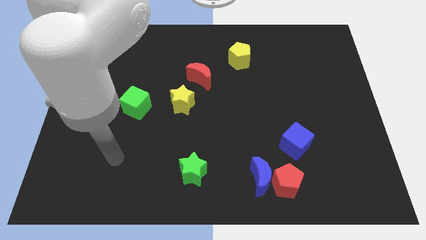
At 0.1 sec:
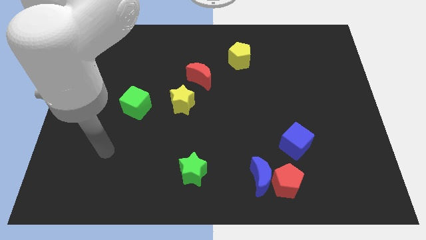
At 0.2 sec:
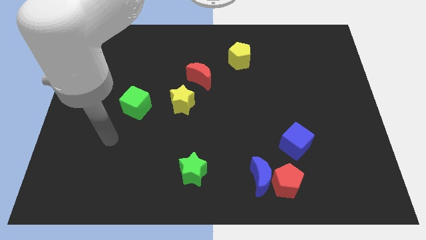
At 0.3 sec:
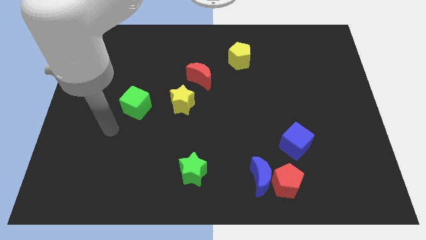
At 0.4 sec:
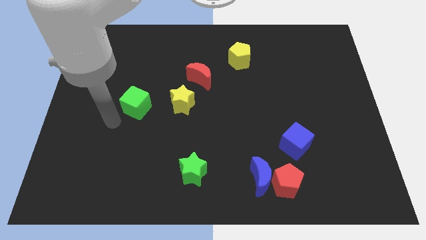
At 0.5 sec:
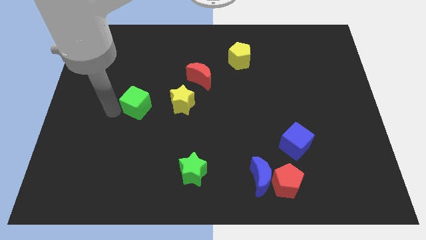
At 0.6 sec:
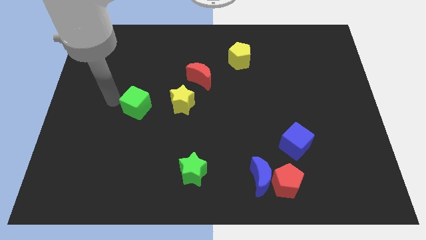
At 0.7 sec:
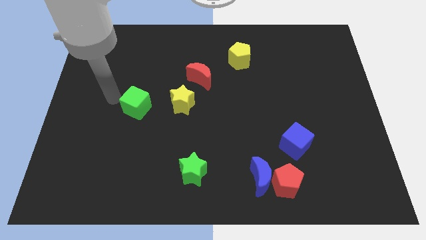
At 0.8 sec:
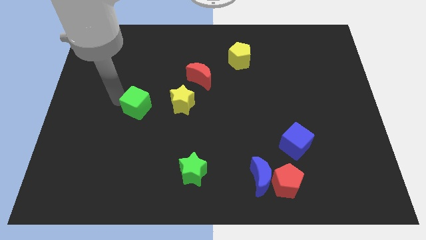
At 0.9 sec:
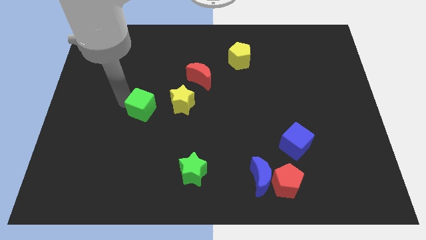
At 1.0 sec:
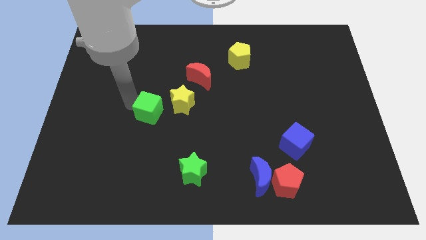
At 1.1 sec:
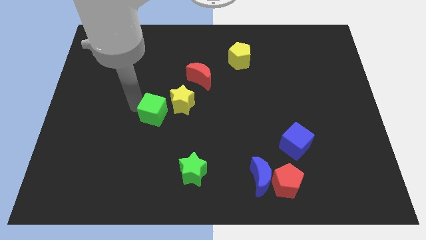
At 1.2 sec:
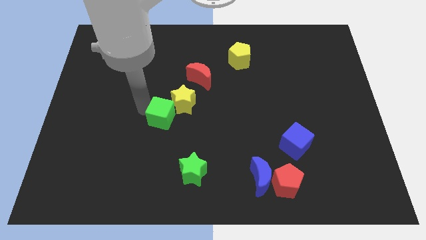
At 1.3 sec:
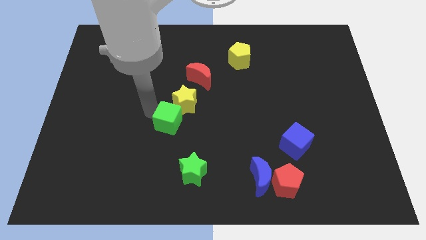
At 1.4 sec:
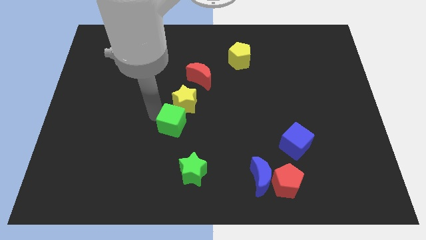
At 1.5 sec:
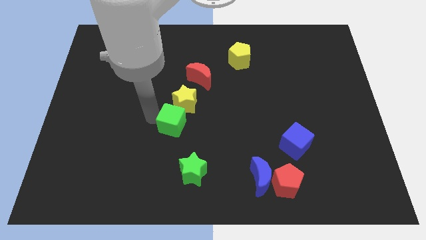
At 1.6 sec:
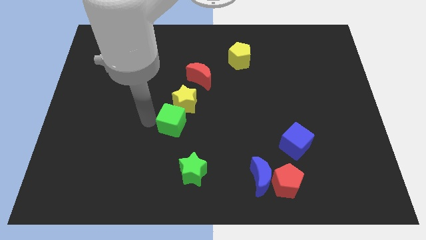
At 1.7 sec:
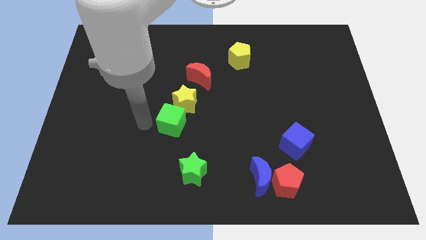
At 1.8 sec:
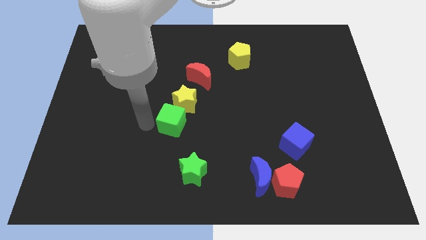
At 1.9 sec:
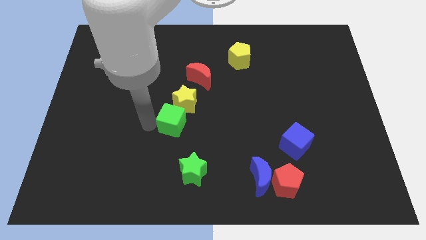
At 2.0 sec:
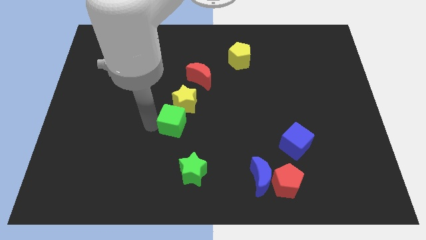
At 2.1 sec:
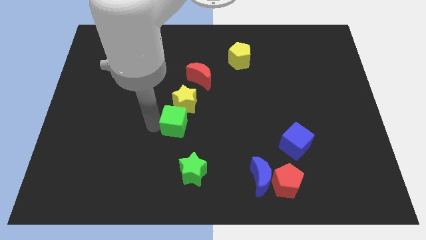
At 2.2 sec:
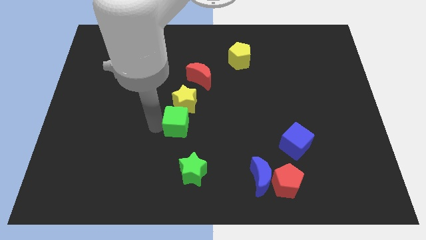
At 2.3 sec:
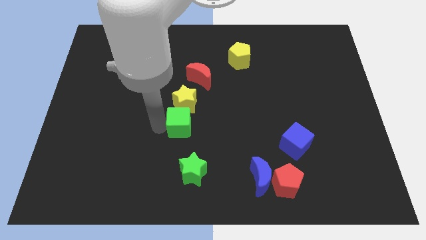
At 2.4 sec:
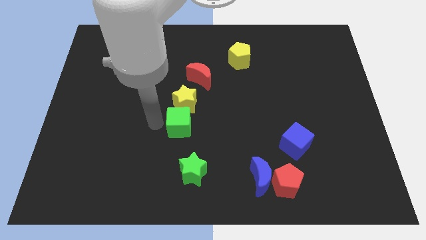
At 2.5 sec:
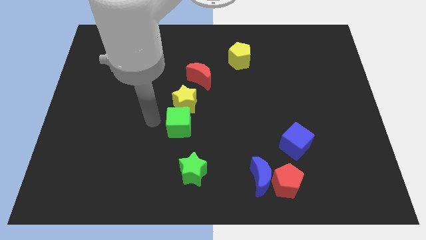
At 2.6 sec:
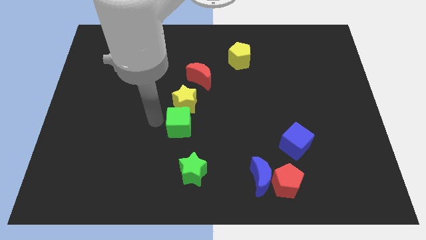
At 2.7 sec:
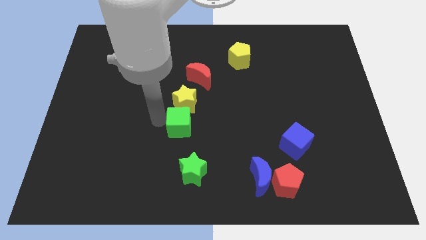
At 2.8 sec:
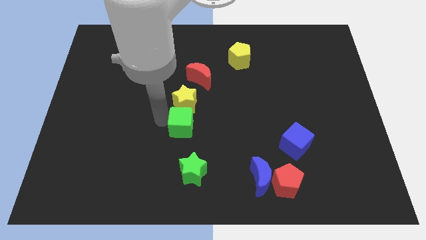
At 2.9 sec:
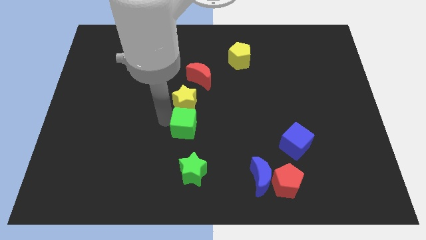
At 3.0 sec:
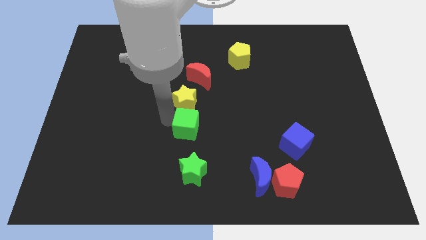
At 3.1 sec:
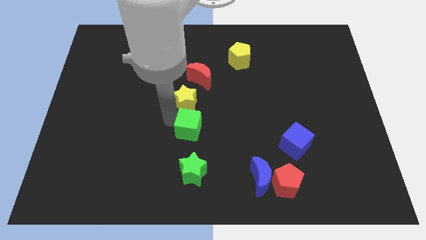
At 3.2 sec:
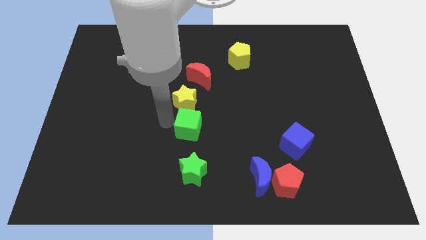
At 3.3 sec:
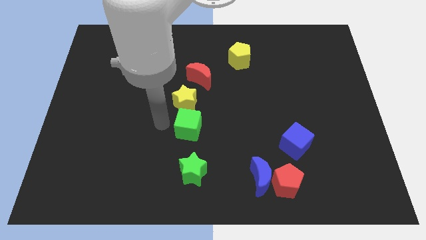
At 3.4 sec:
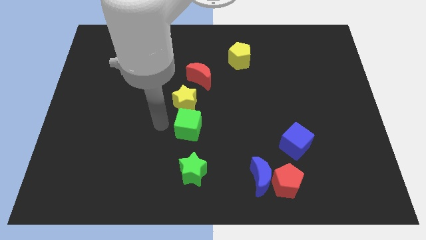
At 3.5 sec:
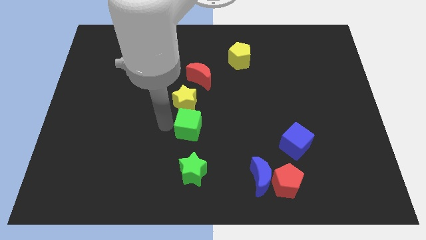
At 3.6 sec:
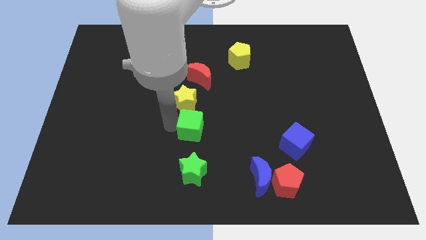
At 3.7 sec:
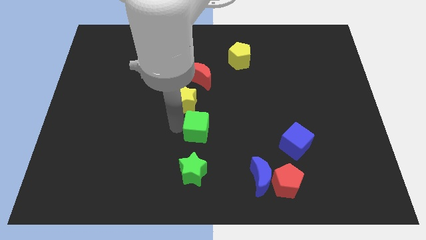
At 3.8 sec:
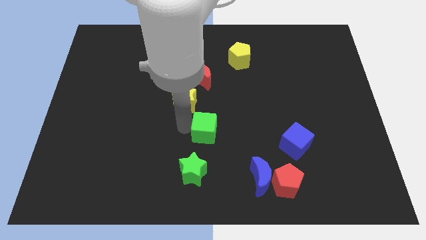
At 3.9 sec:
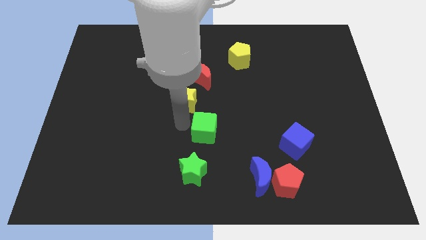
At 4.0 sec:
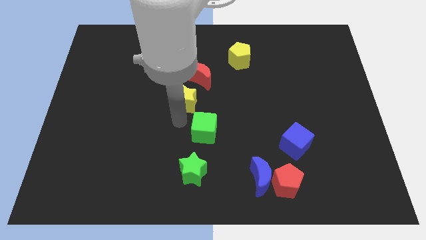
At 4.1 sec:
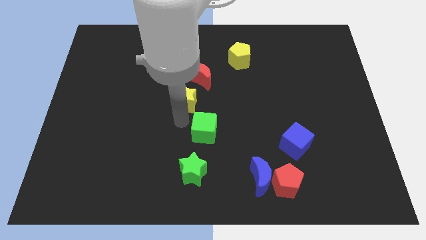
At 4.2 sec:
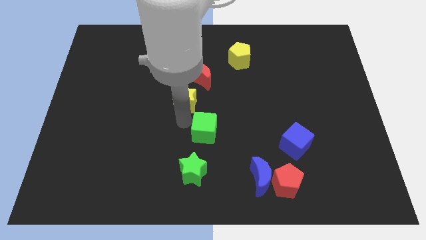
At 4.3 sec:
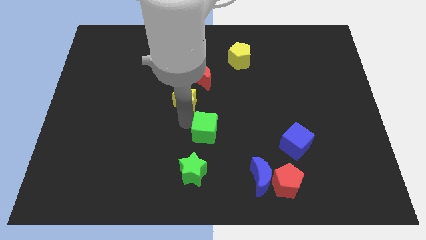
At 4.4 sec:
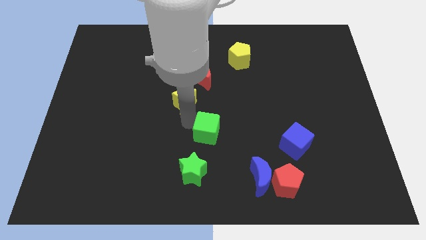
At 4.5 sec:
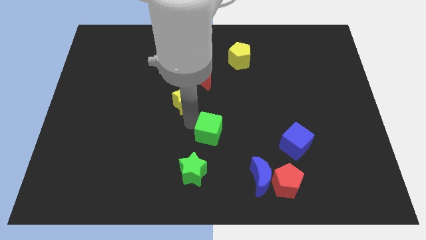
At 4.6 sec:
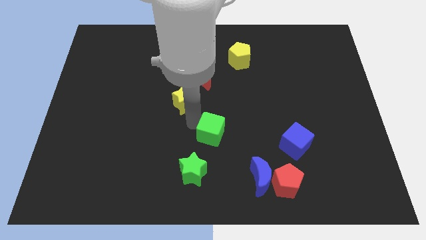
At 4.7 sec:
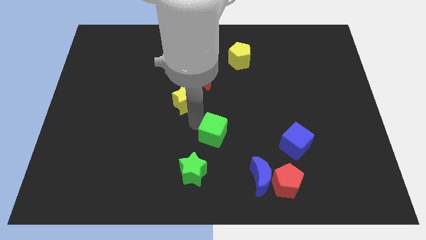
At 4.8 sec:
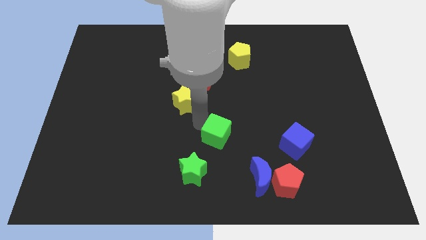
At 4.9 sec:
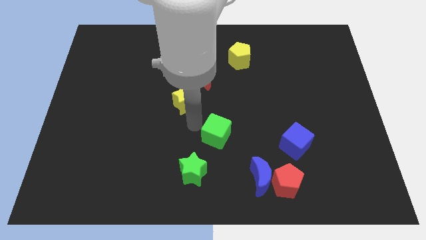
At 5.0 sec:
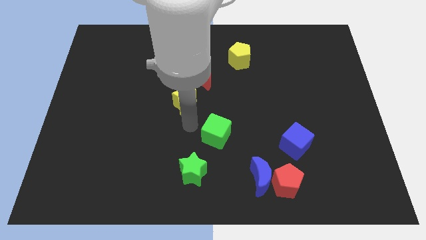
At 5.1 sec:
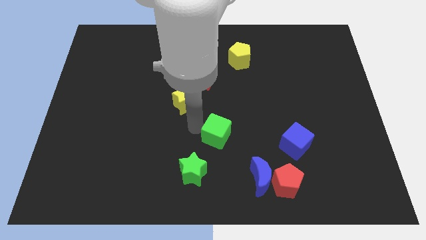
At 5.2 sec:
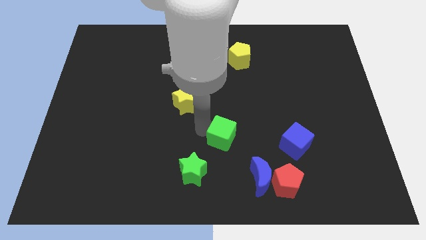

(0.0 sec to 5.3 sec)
move the green cube left of the blue cube

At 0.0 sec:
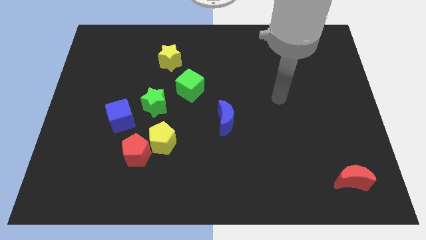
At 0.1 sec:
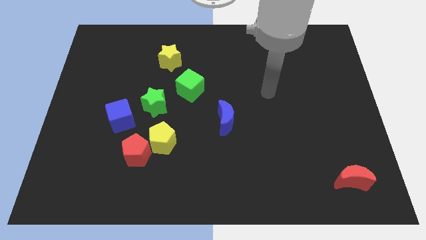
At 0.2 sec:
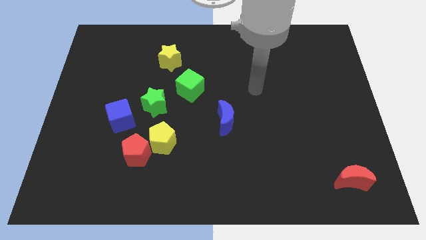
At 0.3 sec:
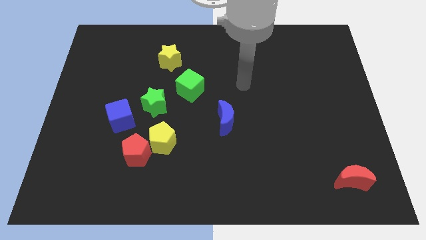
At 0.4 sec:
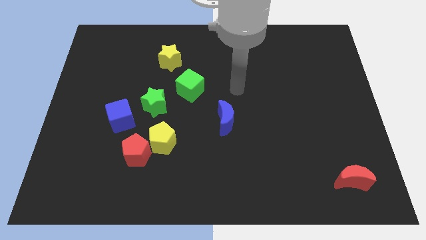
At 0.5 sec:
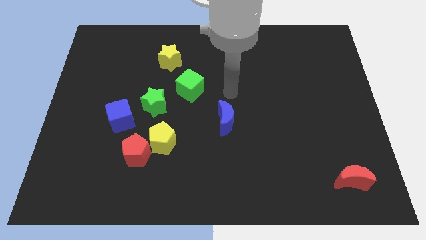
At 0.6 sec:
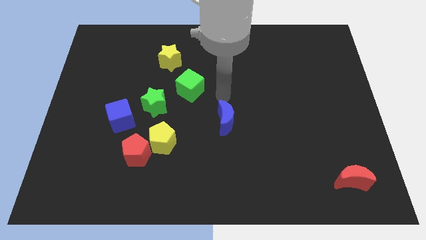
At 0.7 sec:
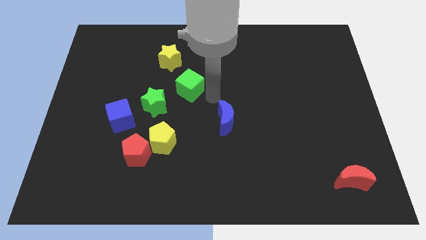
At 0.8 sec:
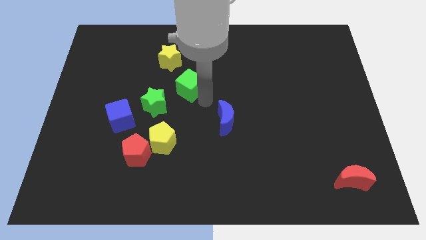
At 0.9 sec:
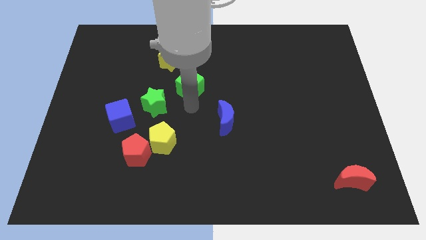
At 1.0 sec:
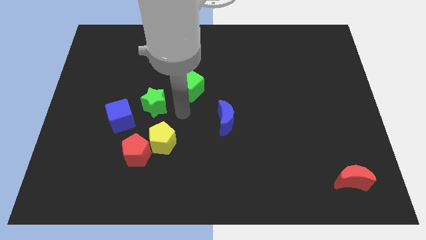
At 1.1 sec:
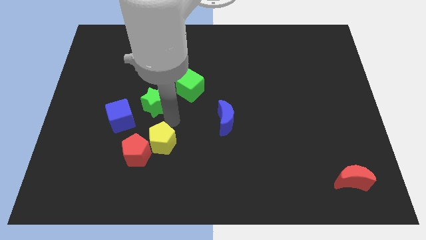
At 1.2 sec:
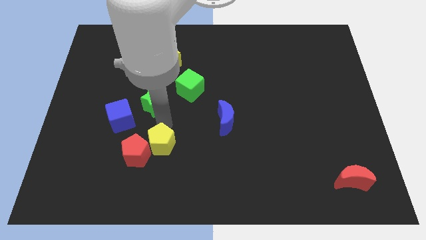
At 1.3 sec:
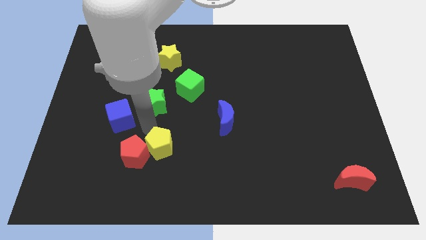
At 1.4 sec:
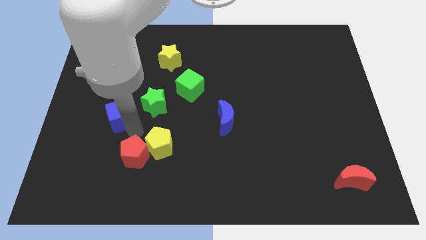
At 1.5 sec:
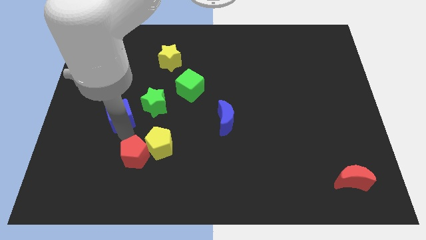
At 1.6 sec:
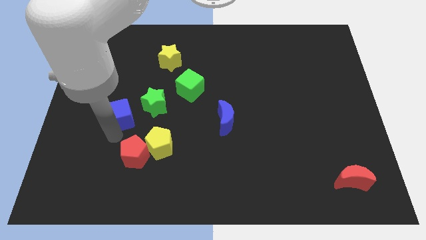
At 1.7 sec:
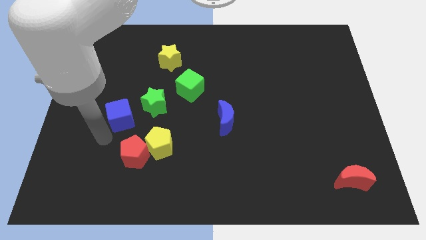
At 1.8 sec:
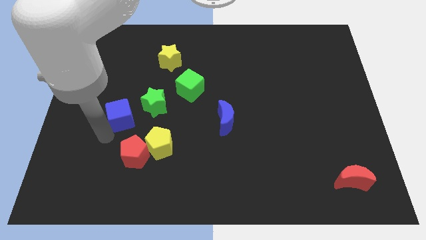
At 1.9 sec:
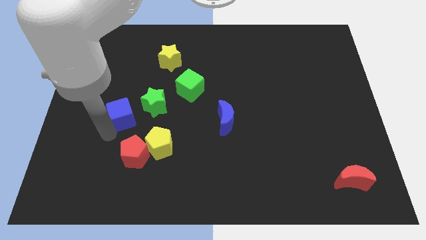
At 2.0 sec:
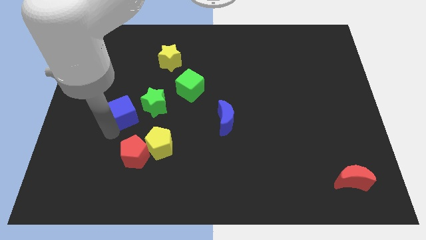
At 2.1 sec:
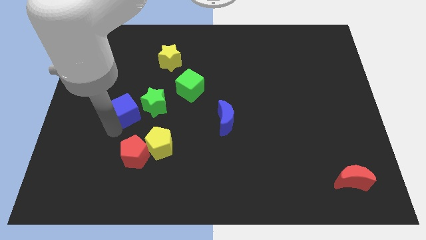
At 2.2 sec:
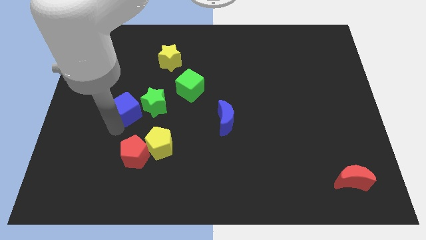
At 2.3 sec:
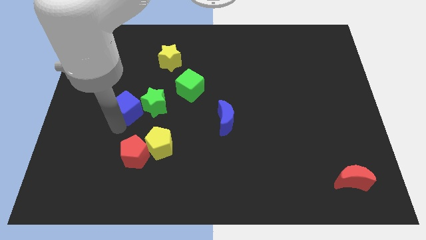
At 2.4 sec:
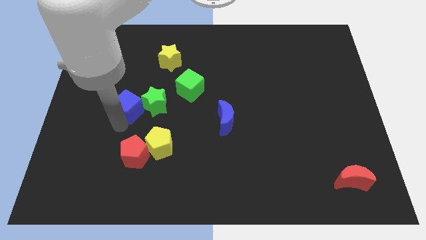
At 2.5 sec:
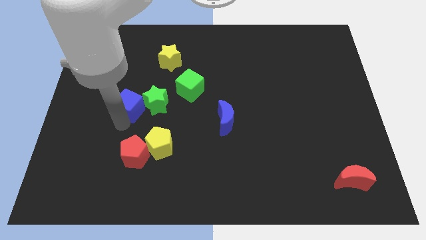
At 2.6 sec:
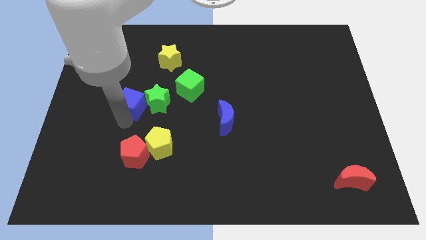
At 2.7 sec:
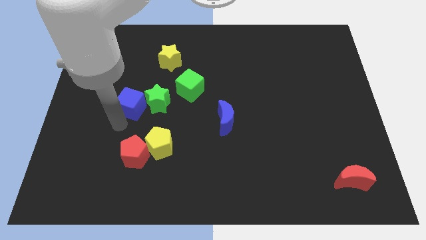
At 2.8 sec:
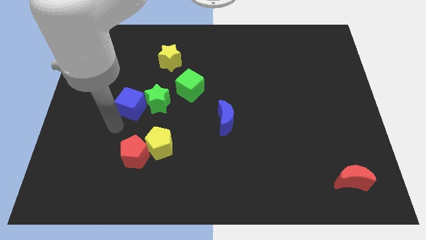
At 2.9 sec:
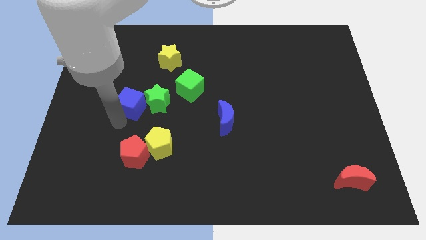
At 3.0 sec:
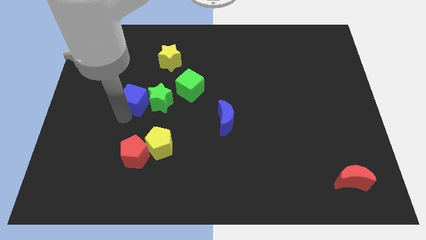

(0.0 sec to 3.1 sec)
move the blue cube just left of the green cube
